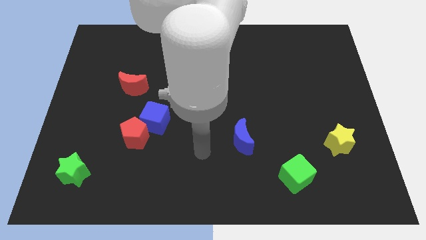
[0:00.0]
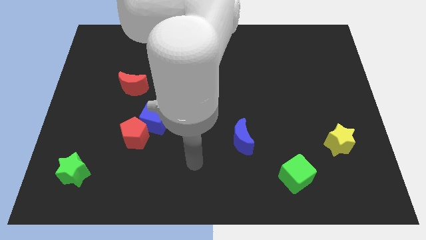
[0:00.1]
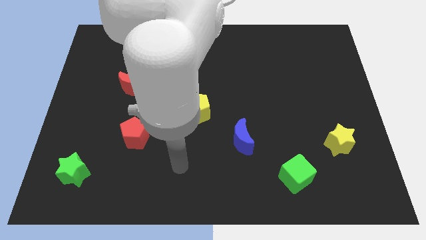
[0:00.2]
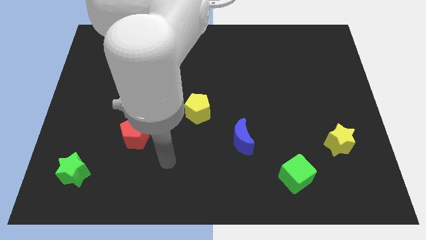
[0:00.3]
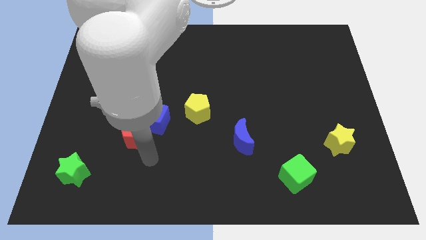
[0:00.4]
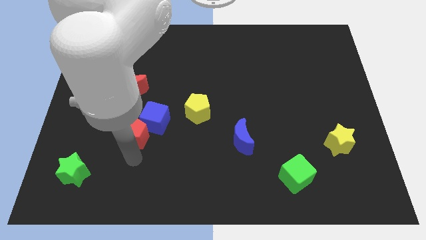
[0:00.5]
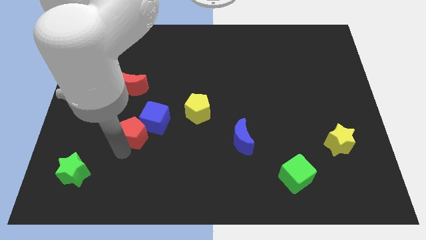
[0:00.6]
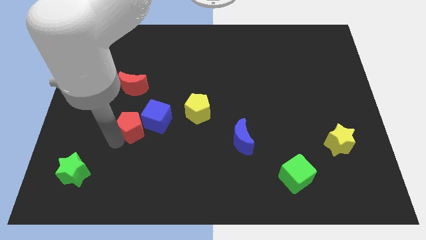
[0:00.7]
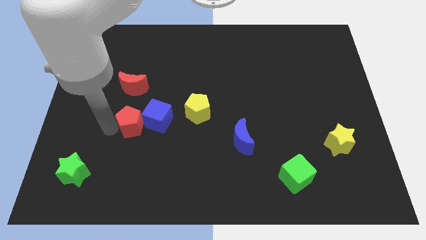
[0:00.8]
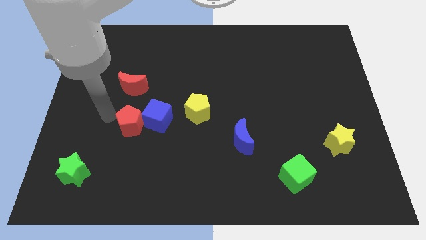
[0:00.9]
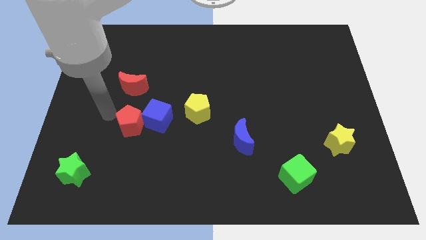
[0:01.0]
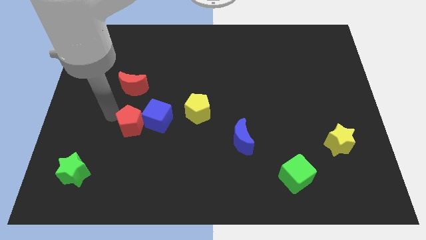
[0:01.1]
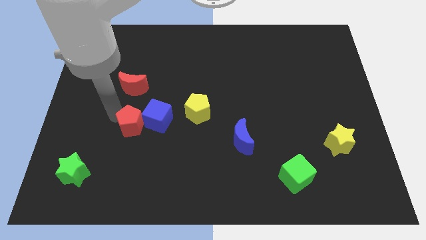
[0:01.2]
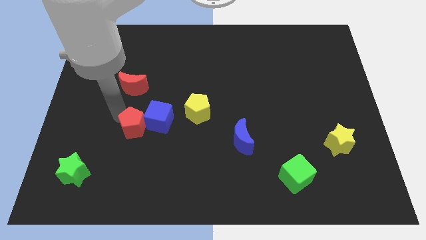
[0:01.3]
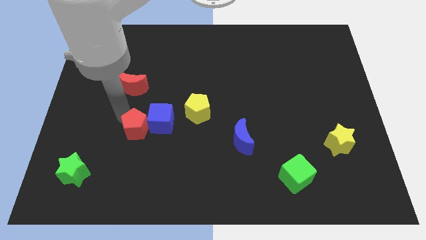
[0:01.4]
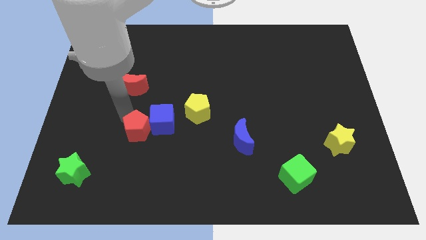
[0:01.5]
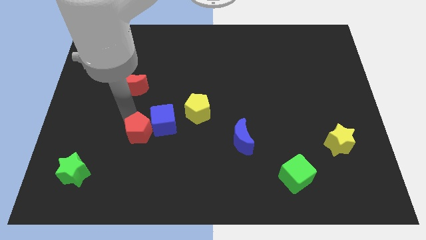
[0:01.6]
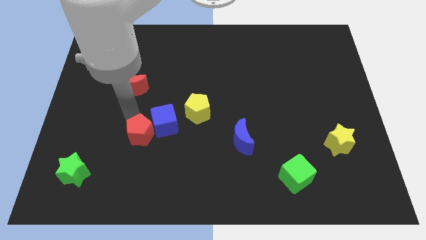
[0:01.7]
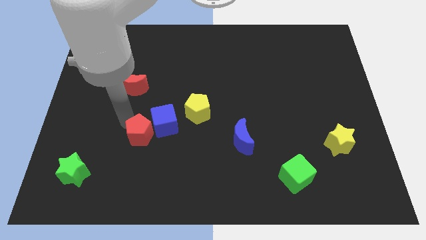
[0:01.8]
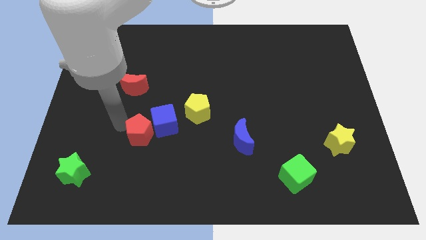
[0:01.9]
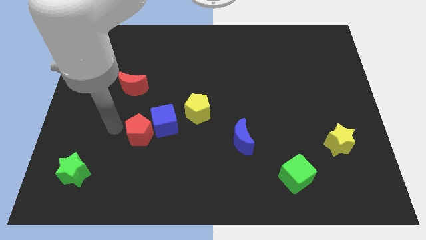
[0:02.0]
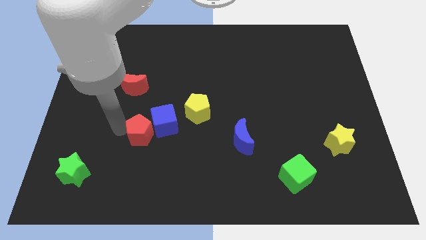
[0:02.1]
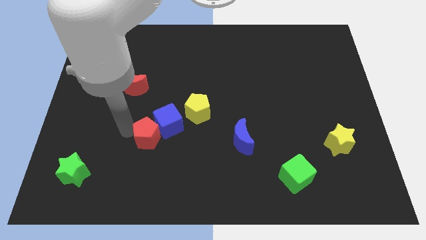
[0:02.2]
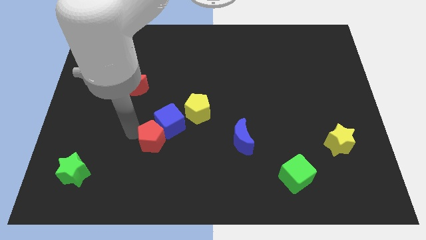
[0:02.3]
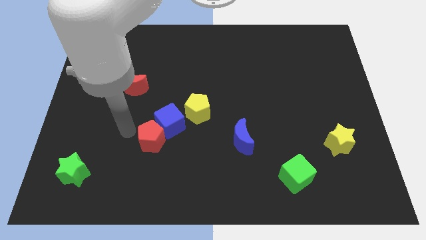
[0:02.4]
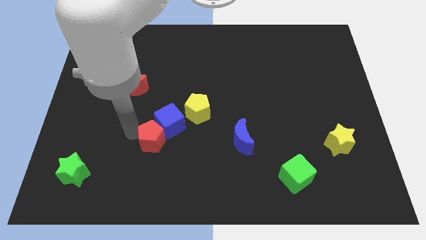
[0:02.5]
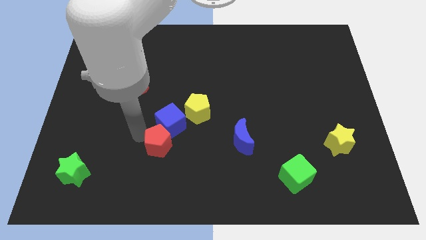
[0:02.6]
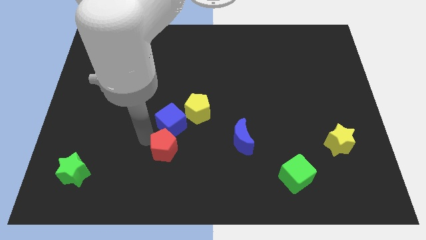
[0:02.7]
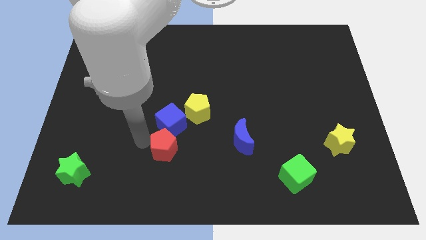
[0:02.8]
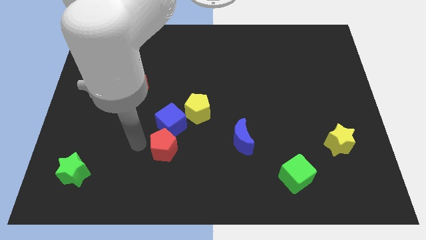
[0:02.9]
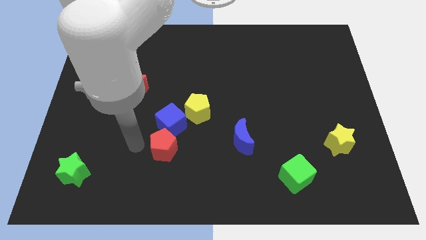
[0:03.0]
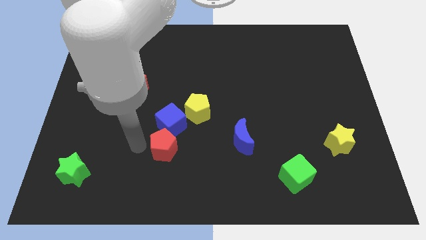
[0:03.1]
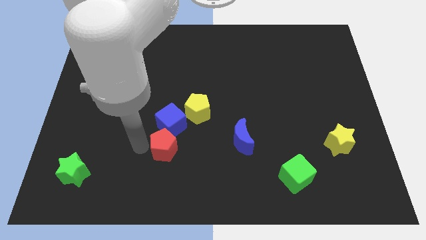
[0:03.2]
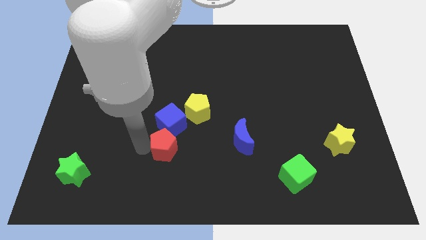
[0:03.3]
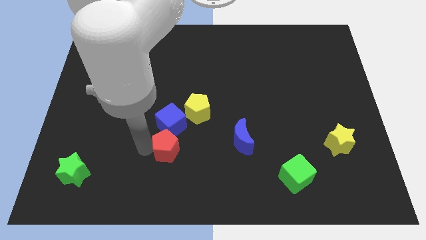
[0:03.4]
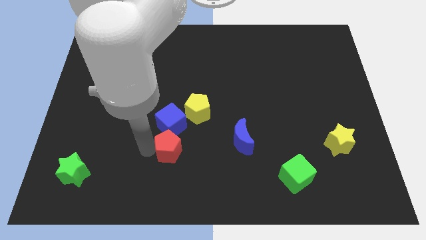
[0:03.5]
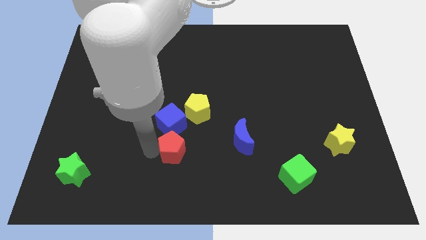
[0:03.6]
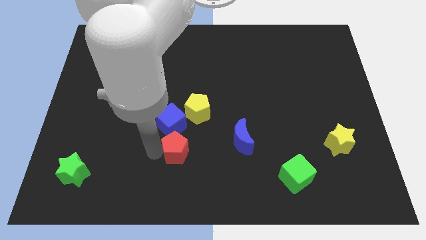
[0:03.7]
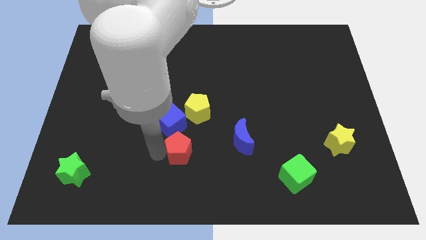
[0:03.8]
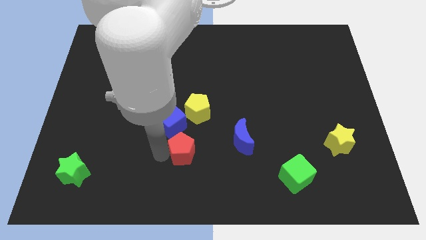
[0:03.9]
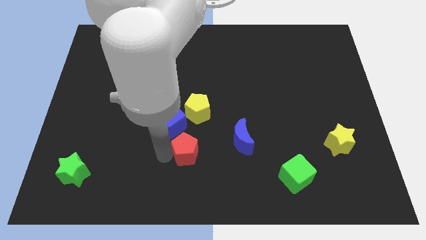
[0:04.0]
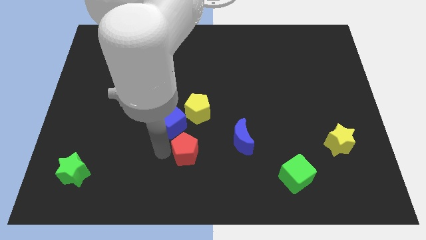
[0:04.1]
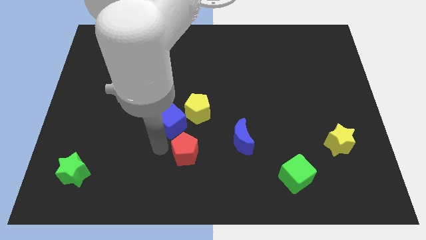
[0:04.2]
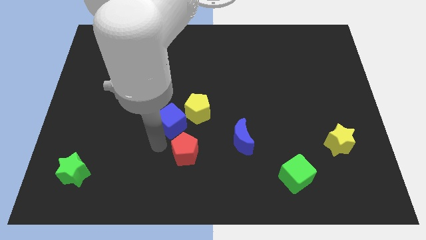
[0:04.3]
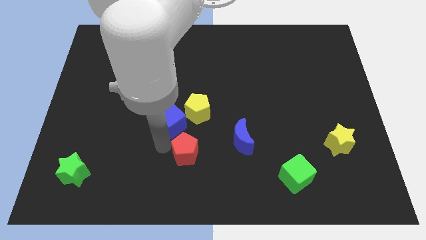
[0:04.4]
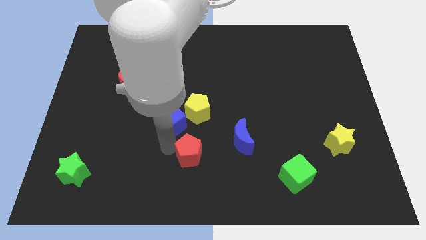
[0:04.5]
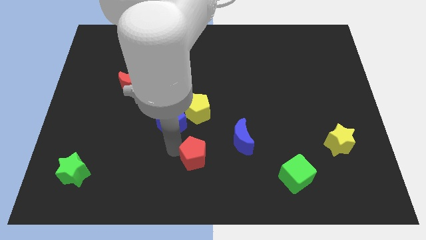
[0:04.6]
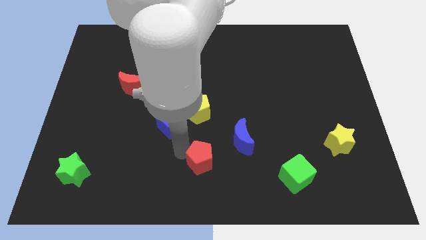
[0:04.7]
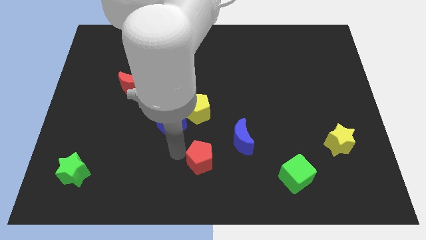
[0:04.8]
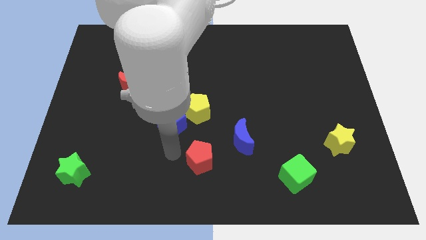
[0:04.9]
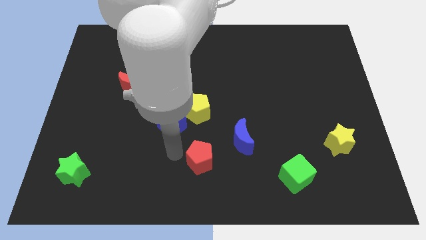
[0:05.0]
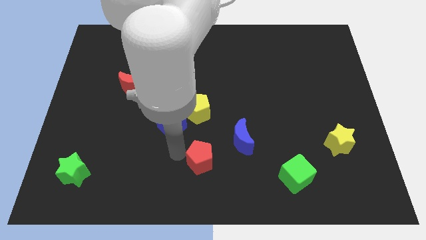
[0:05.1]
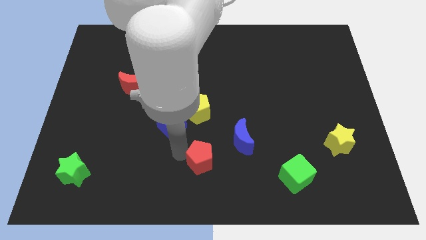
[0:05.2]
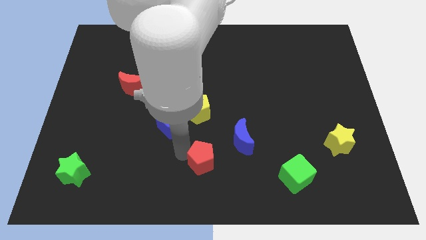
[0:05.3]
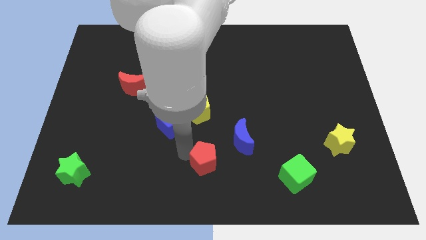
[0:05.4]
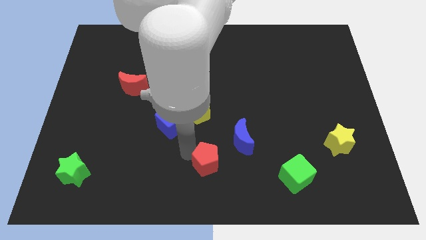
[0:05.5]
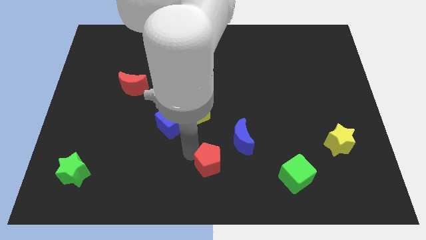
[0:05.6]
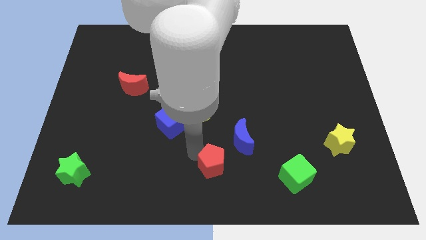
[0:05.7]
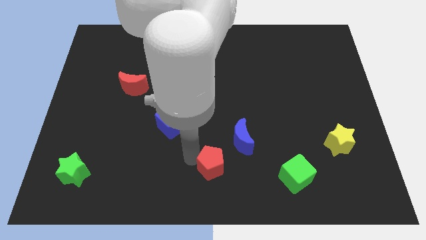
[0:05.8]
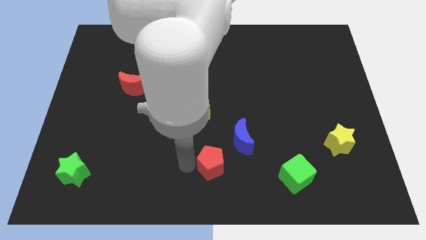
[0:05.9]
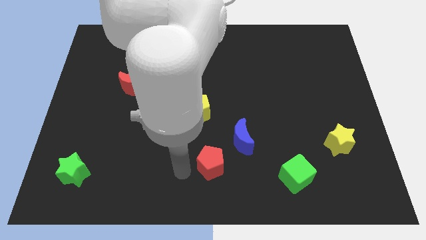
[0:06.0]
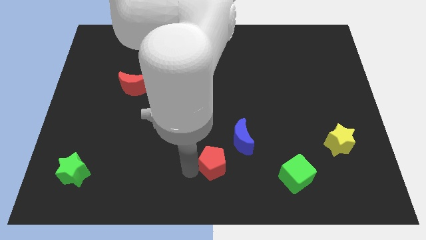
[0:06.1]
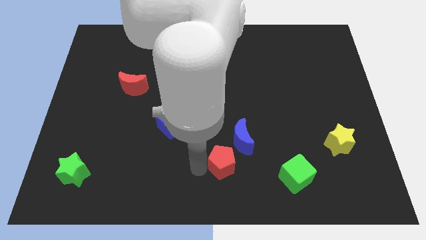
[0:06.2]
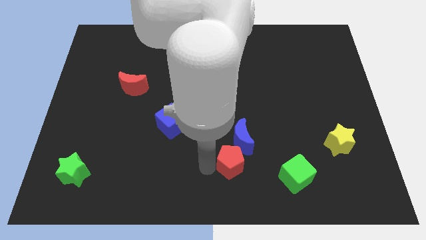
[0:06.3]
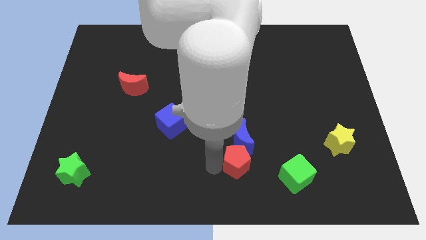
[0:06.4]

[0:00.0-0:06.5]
move the red pentagon right

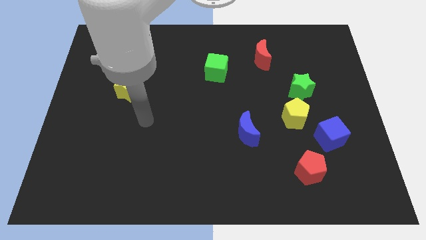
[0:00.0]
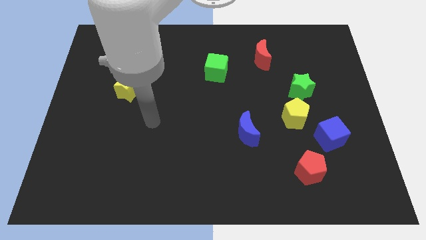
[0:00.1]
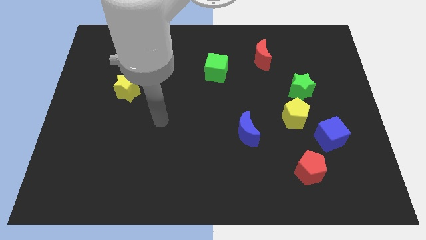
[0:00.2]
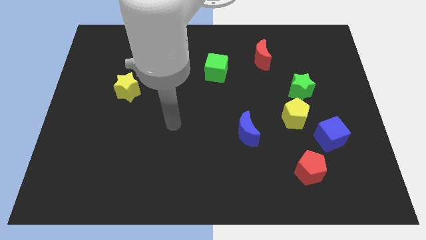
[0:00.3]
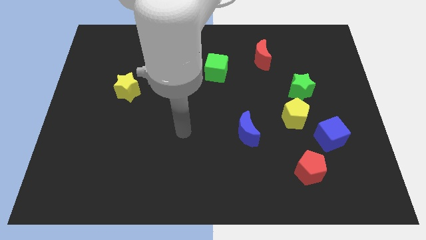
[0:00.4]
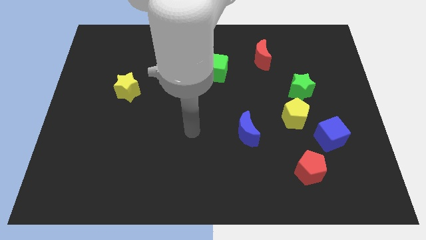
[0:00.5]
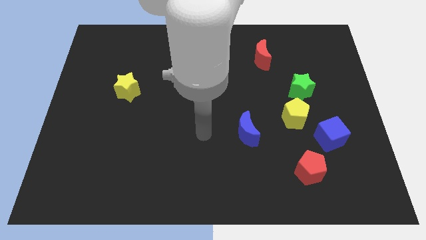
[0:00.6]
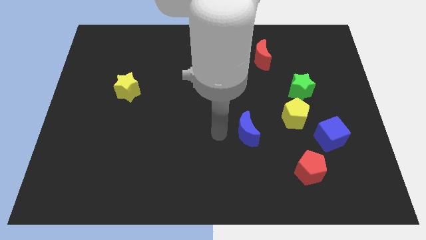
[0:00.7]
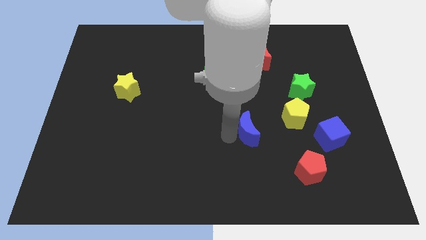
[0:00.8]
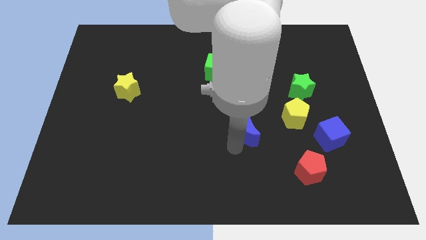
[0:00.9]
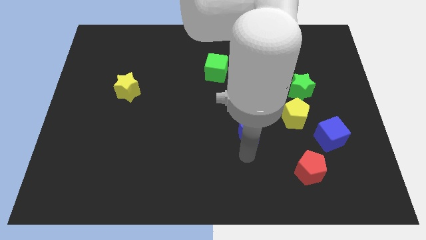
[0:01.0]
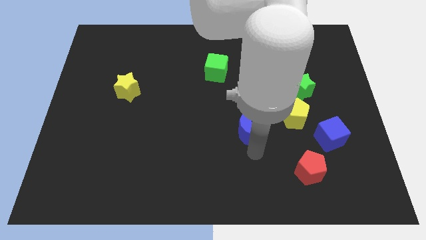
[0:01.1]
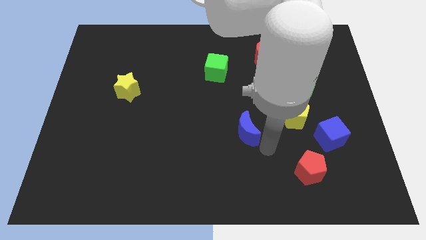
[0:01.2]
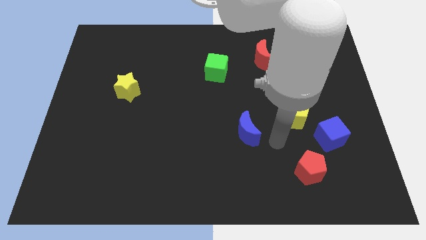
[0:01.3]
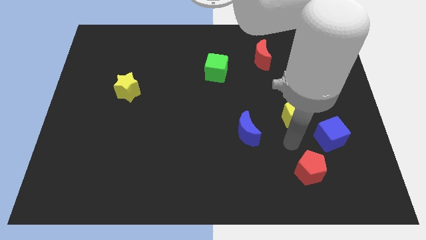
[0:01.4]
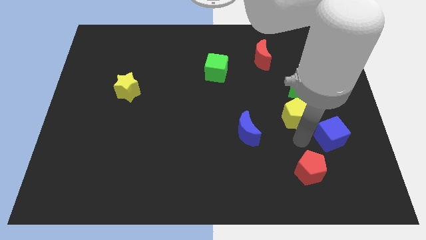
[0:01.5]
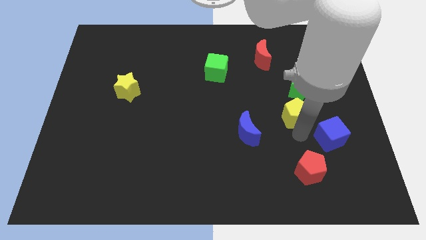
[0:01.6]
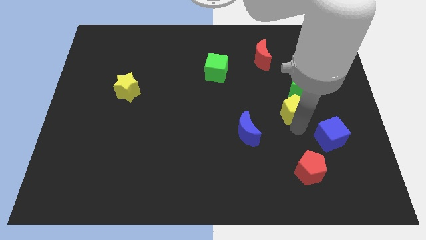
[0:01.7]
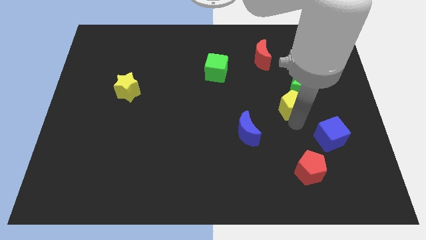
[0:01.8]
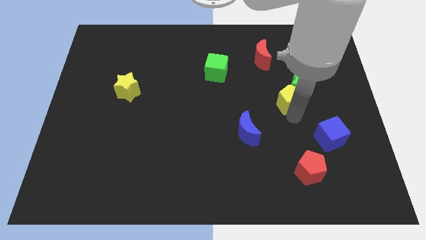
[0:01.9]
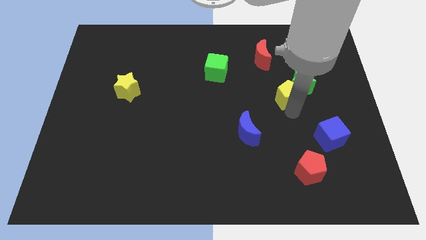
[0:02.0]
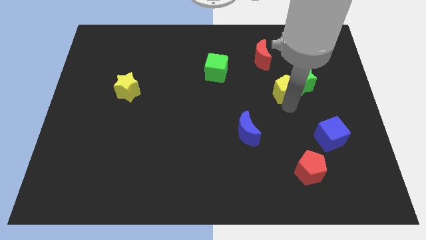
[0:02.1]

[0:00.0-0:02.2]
slide the yellow pentagon upwards a little
